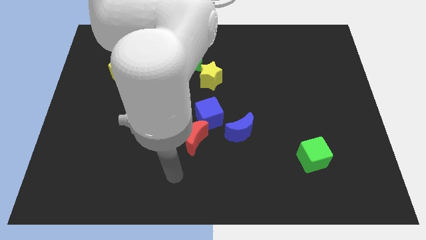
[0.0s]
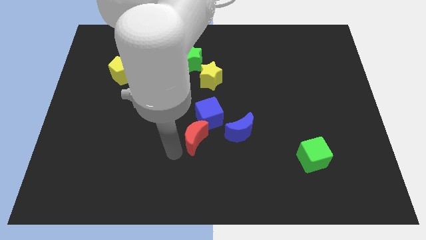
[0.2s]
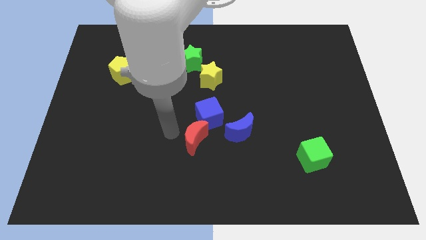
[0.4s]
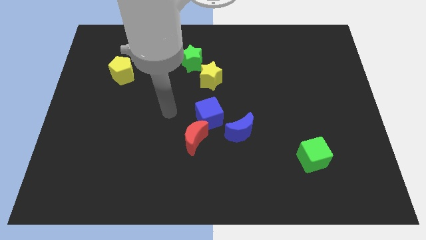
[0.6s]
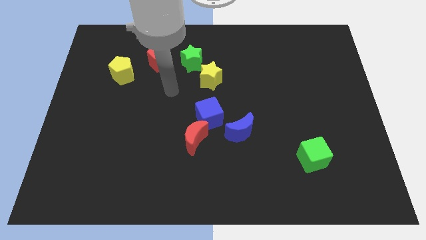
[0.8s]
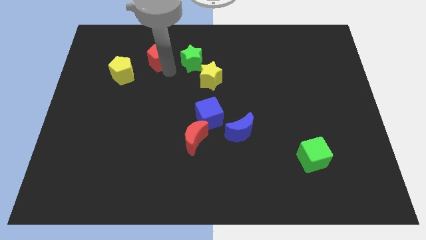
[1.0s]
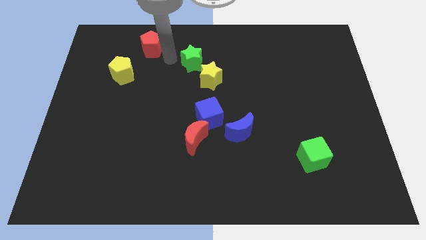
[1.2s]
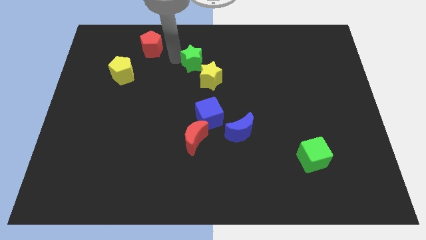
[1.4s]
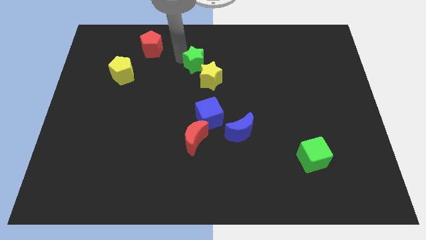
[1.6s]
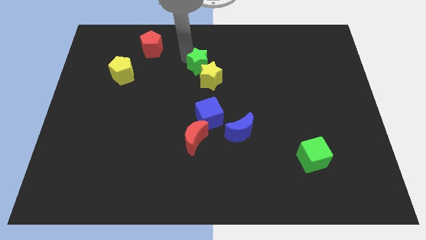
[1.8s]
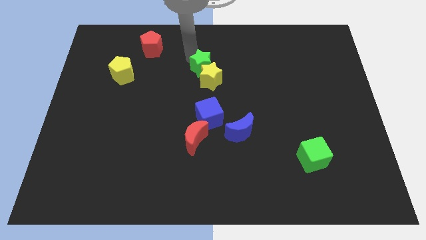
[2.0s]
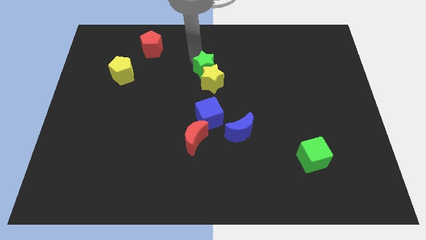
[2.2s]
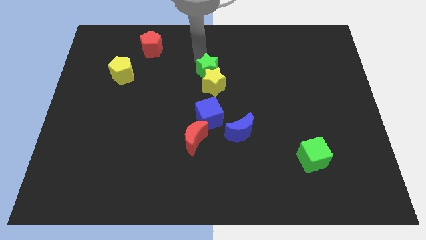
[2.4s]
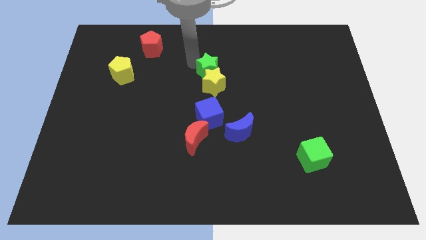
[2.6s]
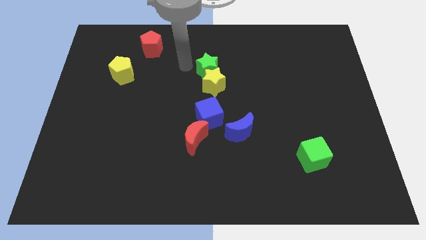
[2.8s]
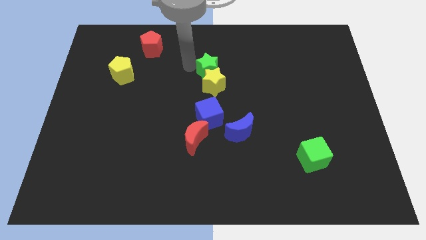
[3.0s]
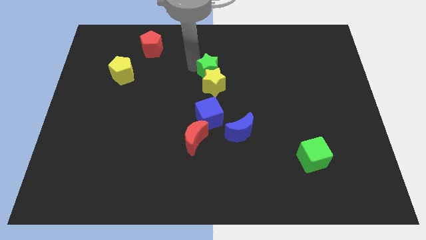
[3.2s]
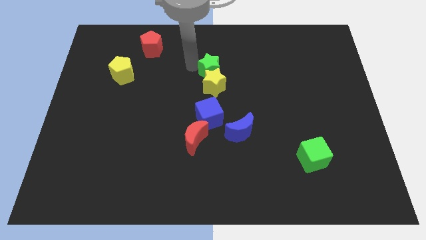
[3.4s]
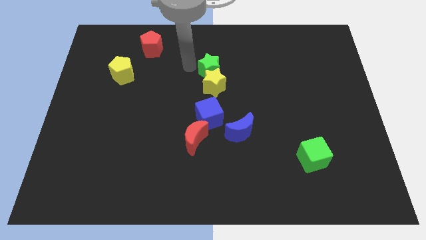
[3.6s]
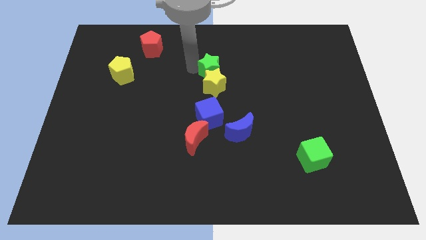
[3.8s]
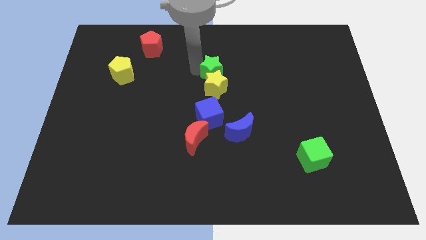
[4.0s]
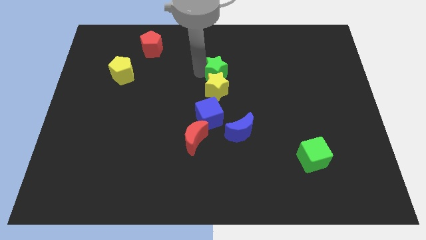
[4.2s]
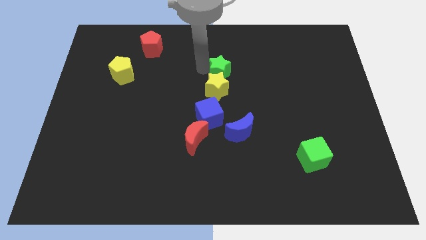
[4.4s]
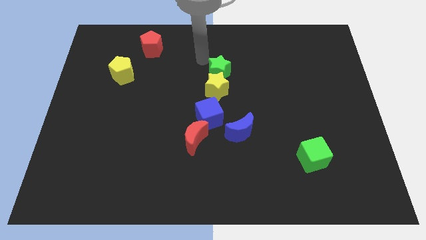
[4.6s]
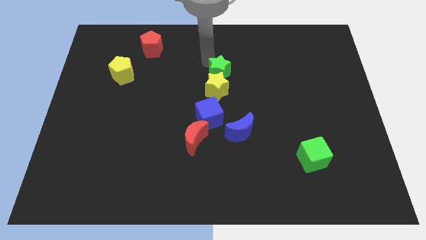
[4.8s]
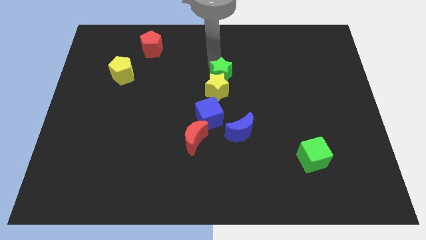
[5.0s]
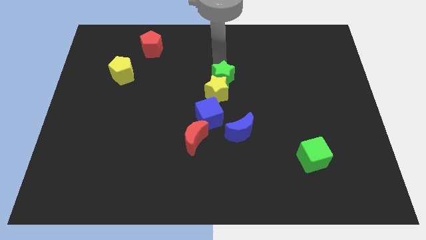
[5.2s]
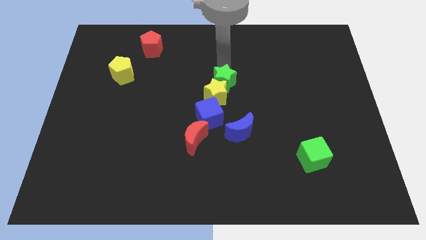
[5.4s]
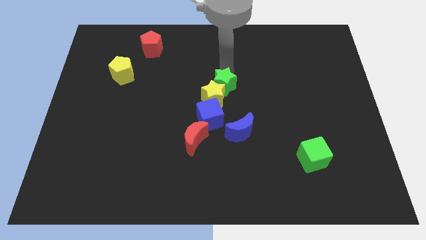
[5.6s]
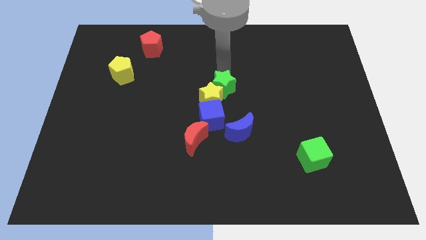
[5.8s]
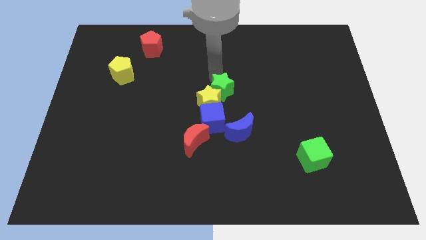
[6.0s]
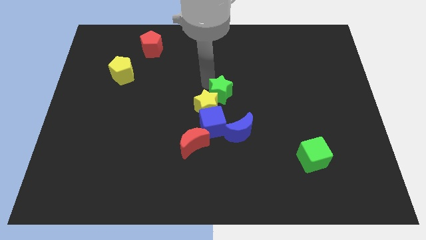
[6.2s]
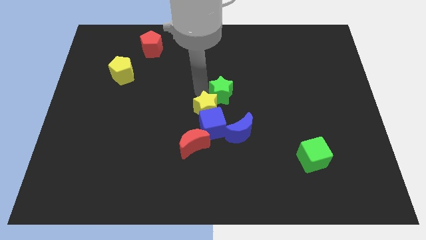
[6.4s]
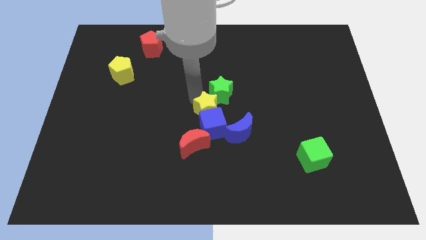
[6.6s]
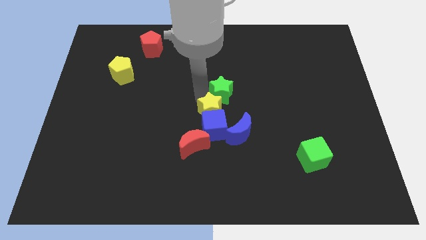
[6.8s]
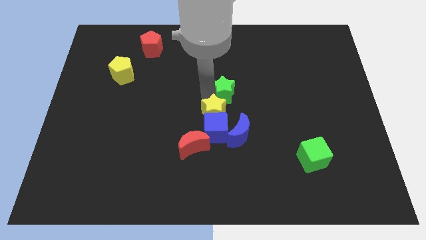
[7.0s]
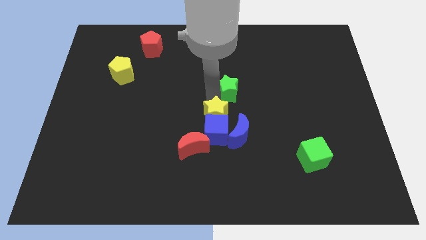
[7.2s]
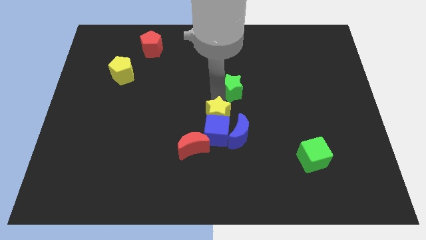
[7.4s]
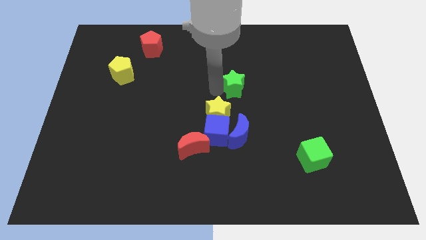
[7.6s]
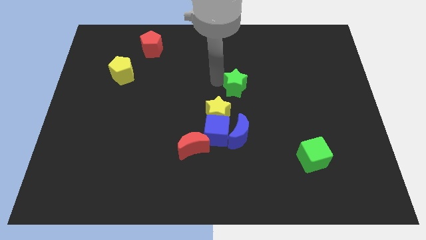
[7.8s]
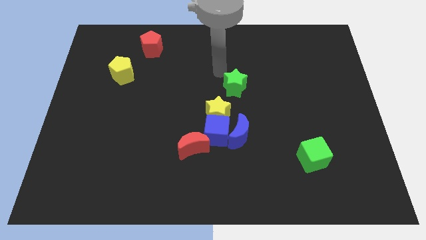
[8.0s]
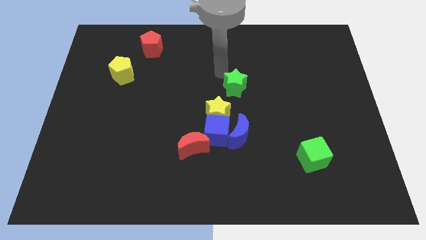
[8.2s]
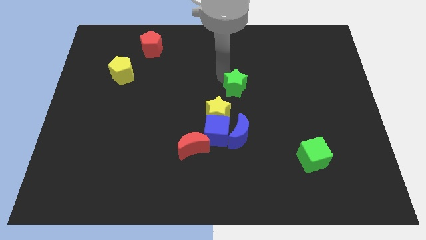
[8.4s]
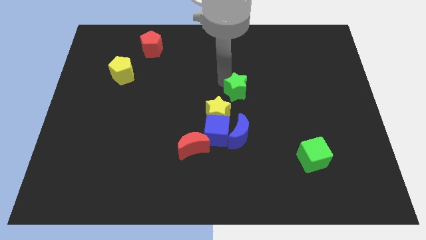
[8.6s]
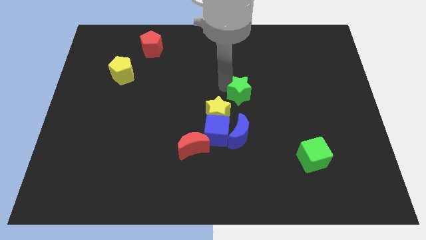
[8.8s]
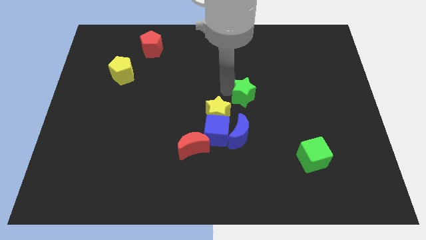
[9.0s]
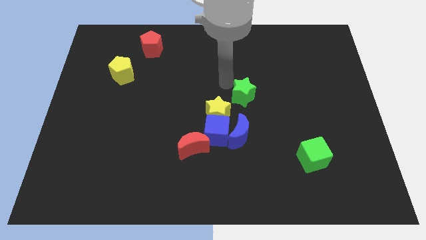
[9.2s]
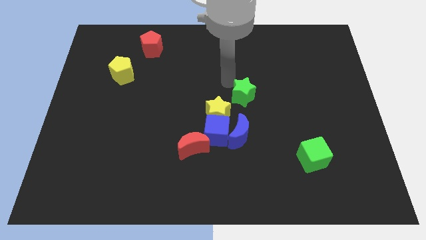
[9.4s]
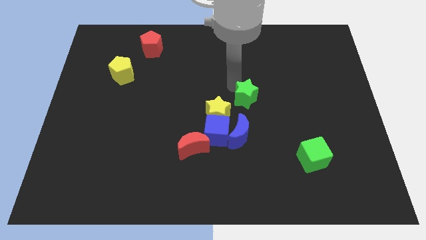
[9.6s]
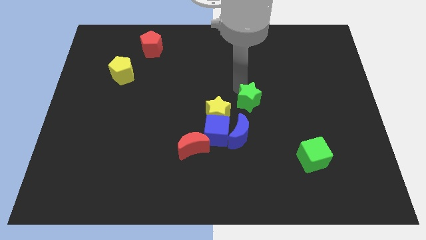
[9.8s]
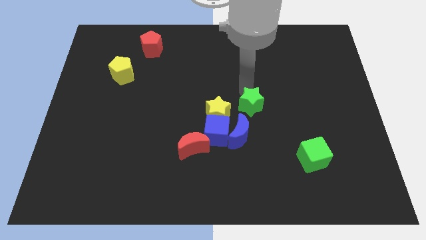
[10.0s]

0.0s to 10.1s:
move the green star downwards and then right

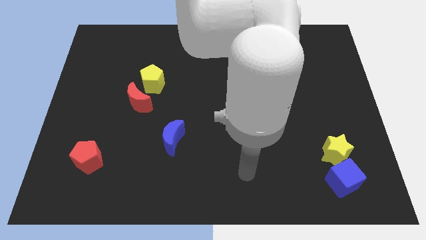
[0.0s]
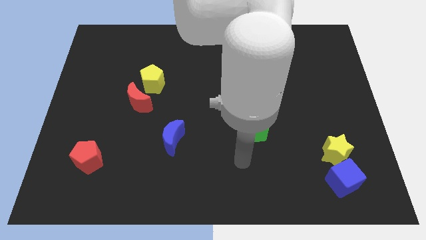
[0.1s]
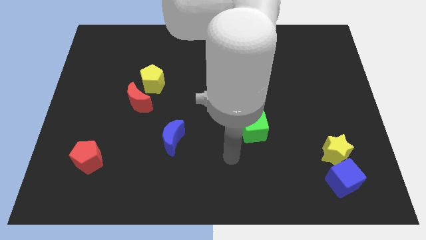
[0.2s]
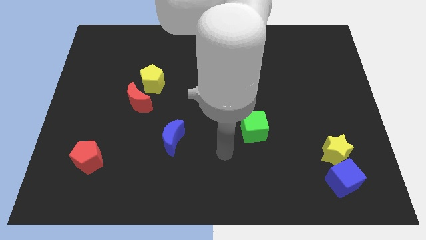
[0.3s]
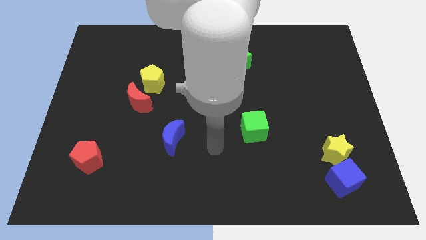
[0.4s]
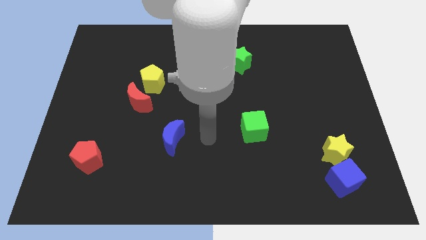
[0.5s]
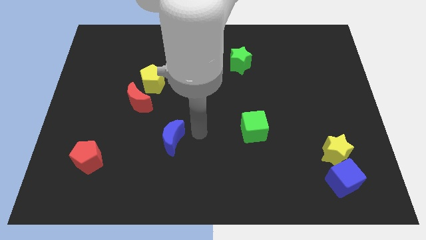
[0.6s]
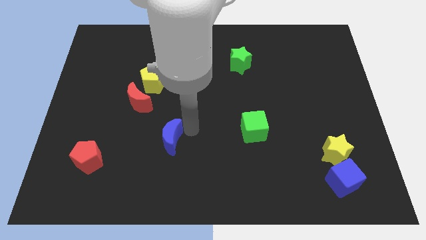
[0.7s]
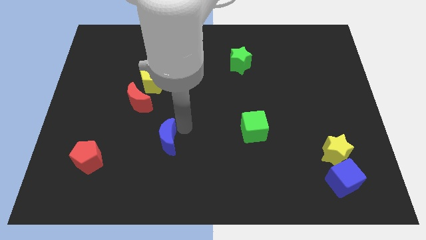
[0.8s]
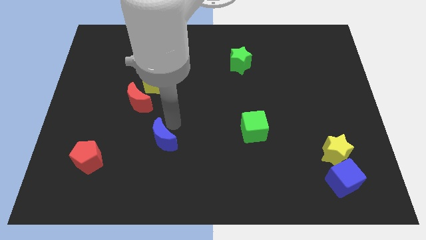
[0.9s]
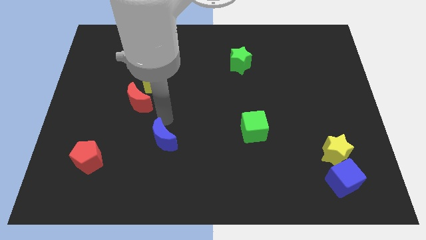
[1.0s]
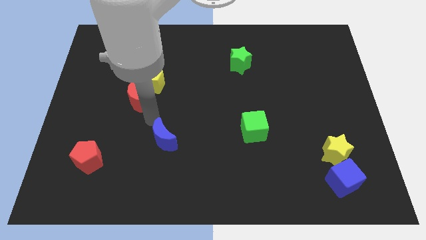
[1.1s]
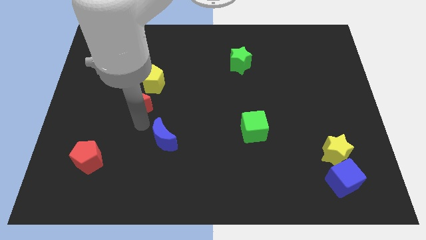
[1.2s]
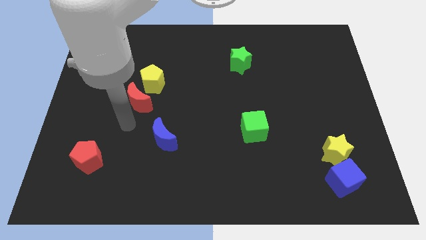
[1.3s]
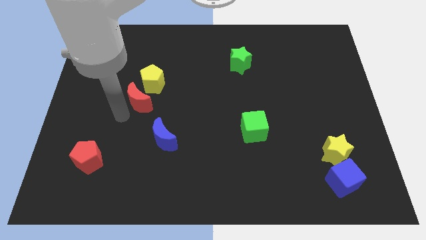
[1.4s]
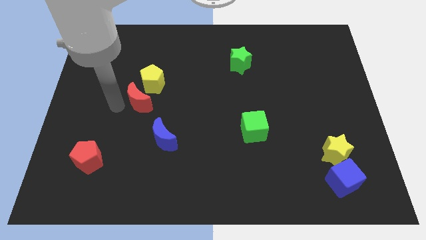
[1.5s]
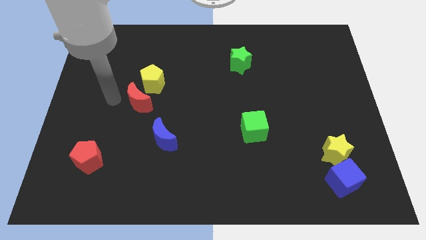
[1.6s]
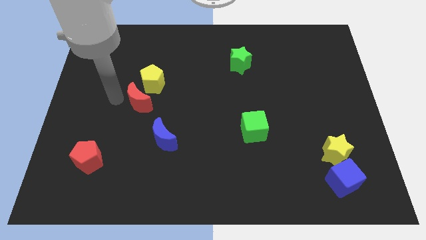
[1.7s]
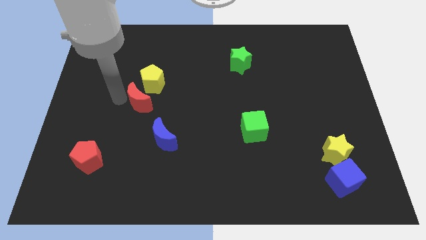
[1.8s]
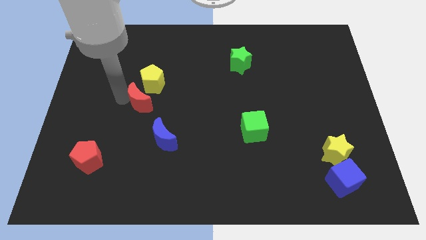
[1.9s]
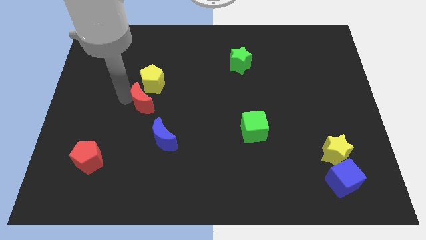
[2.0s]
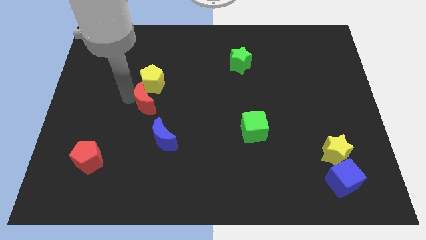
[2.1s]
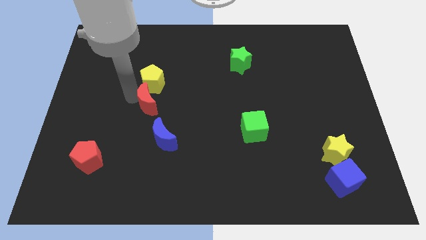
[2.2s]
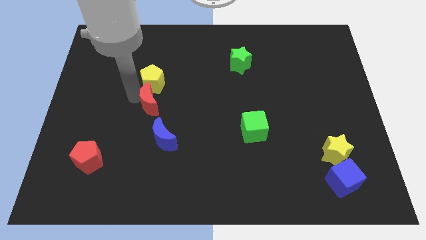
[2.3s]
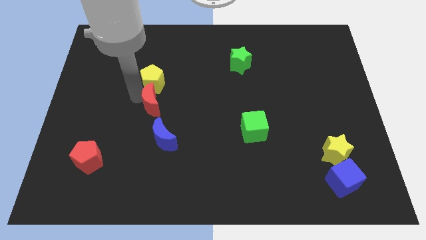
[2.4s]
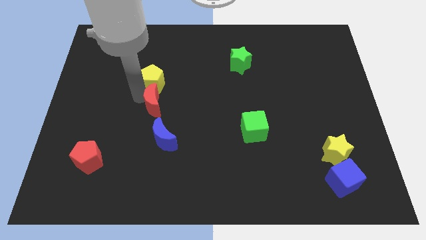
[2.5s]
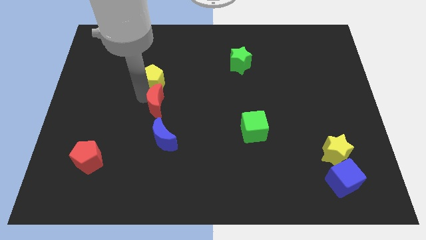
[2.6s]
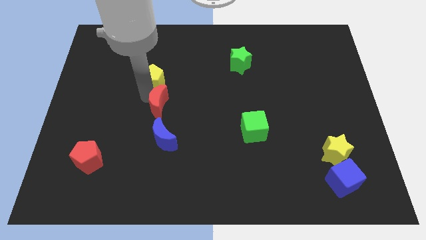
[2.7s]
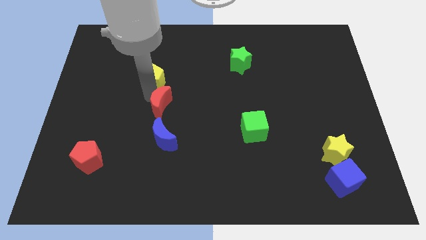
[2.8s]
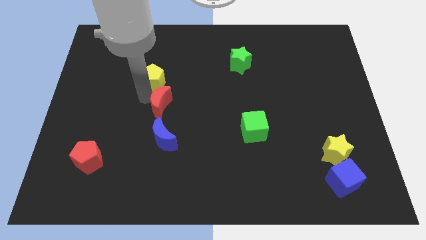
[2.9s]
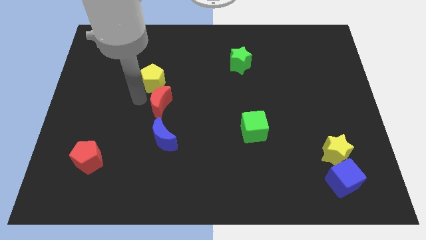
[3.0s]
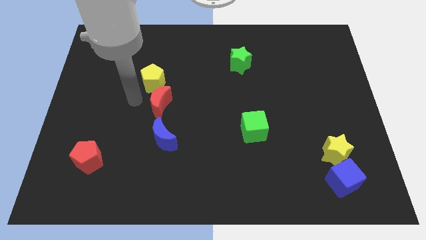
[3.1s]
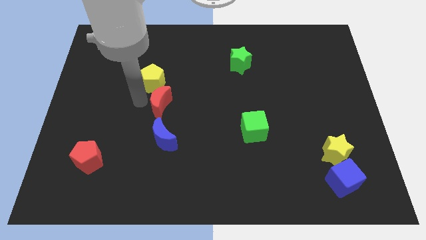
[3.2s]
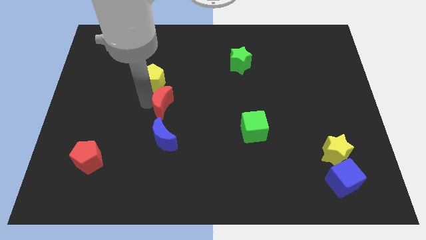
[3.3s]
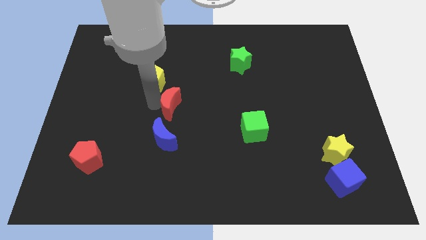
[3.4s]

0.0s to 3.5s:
slightly push the red moon to the right
